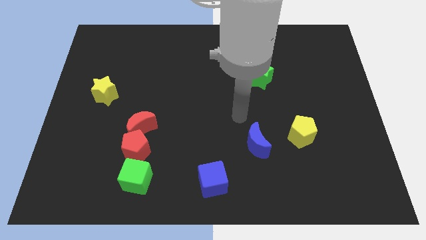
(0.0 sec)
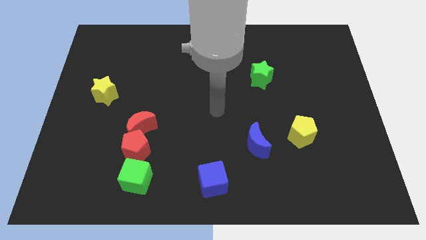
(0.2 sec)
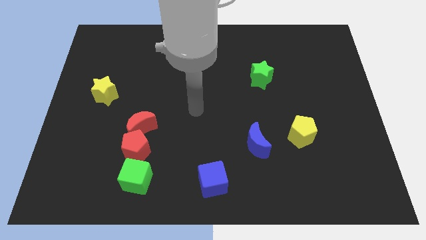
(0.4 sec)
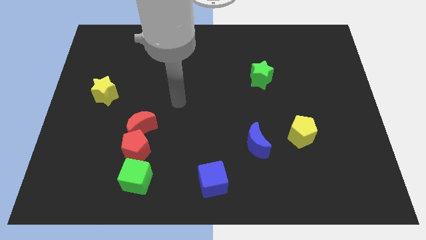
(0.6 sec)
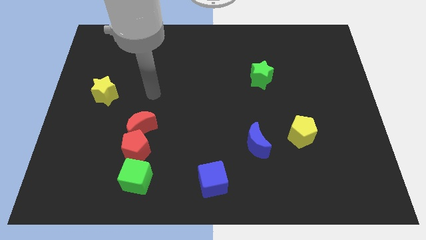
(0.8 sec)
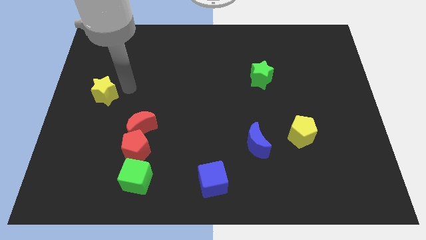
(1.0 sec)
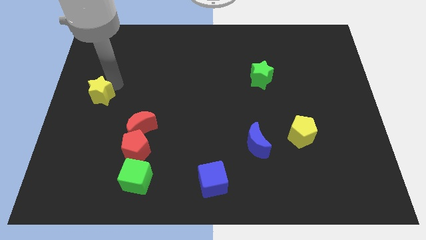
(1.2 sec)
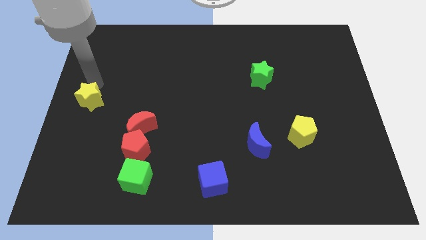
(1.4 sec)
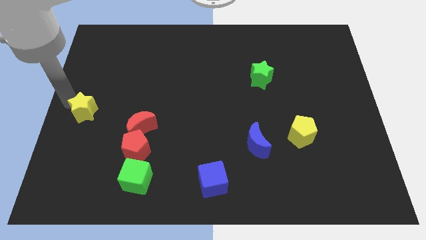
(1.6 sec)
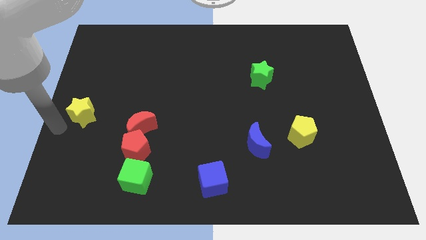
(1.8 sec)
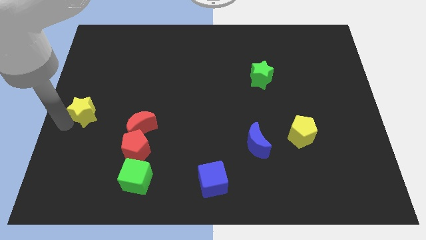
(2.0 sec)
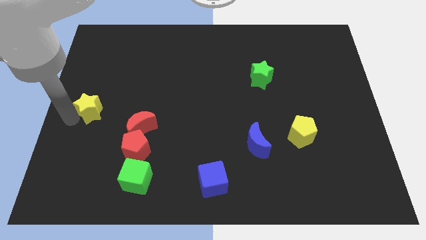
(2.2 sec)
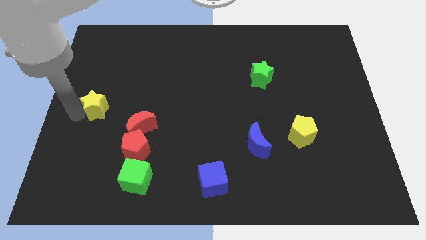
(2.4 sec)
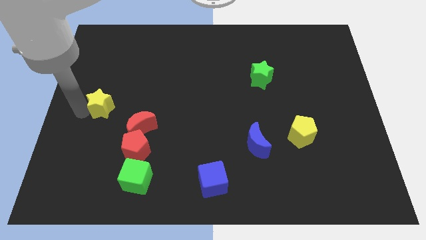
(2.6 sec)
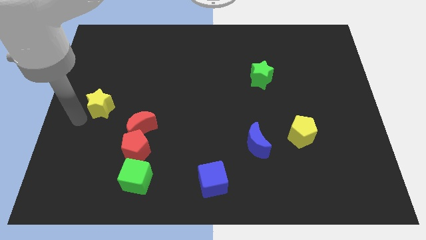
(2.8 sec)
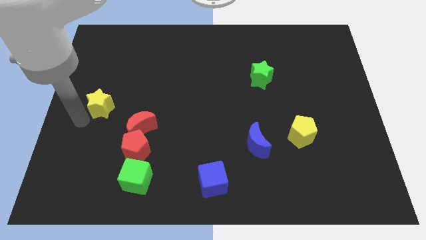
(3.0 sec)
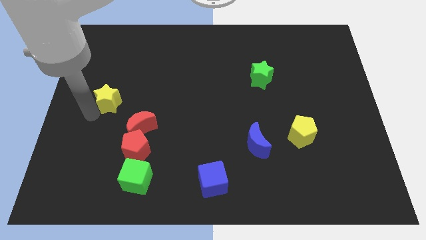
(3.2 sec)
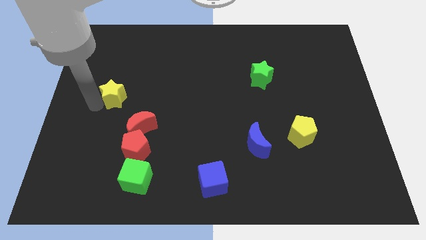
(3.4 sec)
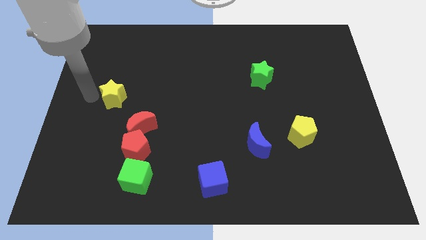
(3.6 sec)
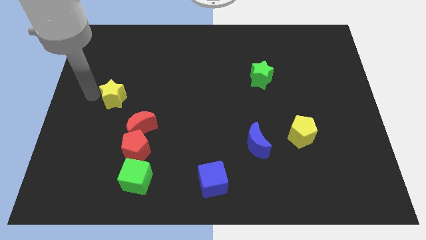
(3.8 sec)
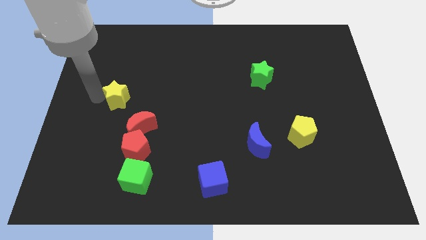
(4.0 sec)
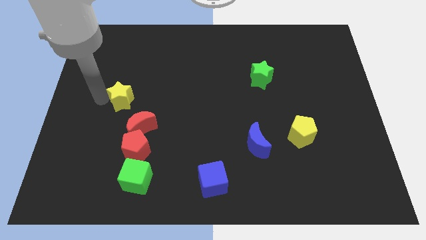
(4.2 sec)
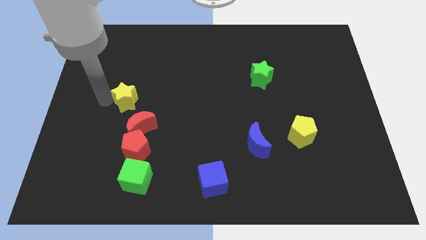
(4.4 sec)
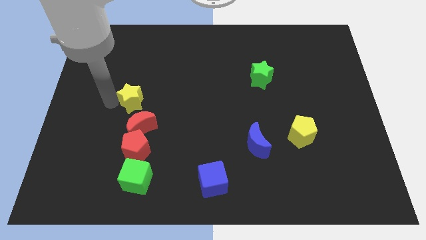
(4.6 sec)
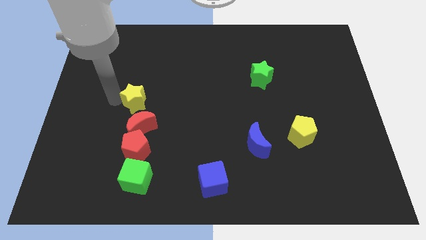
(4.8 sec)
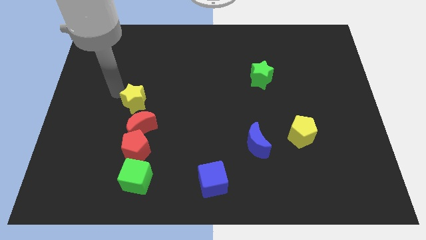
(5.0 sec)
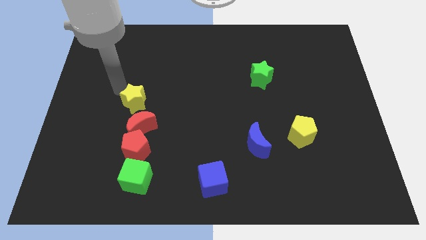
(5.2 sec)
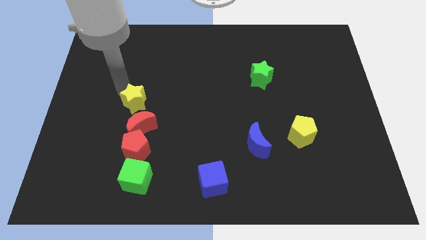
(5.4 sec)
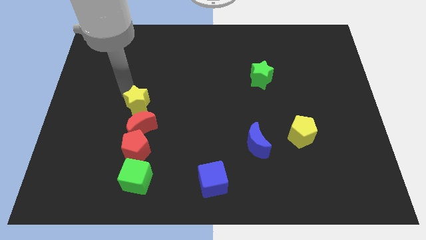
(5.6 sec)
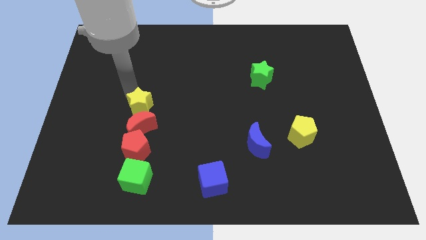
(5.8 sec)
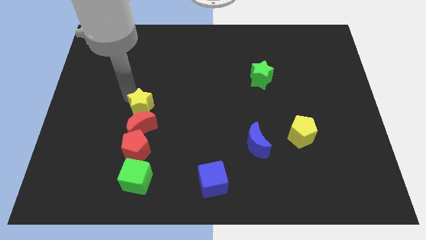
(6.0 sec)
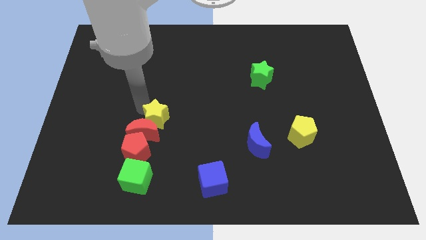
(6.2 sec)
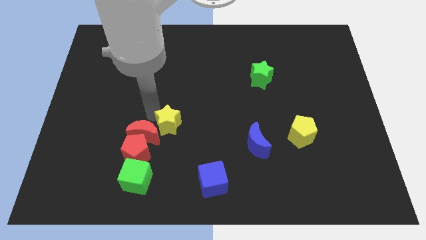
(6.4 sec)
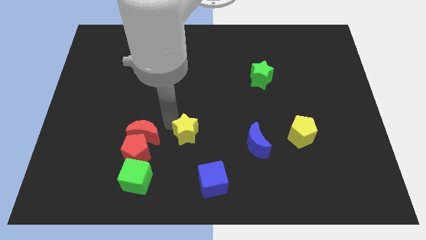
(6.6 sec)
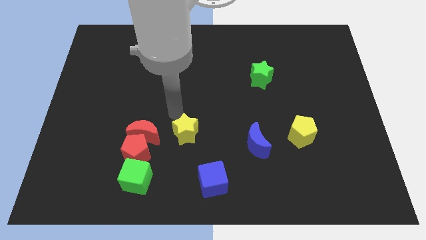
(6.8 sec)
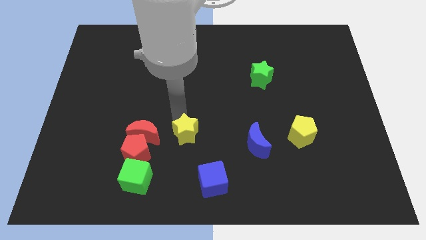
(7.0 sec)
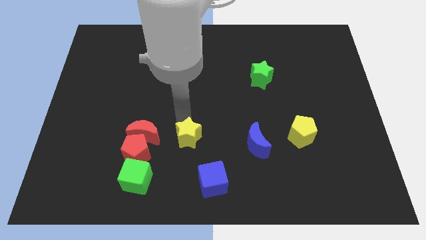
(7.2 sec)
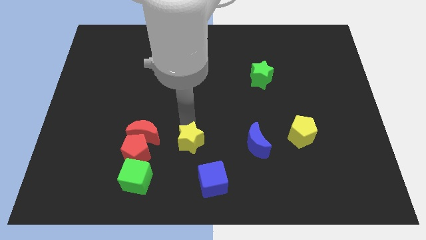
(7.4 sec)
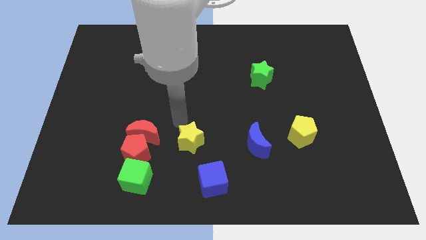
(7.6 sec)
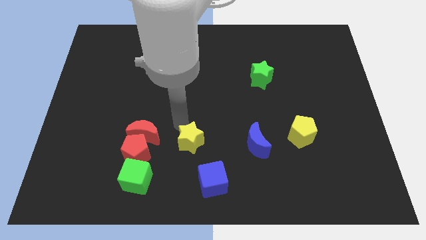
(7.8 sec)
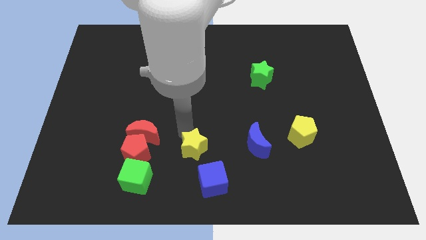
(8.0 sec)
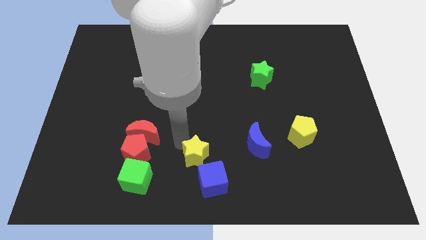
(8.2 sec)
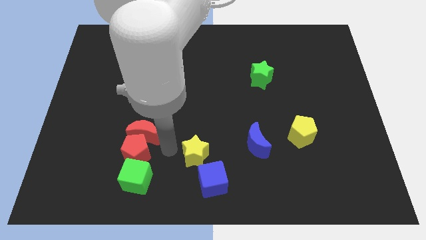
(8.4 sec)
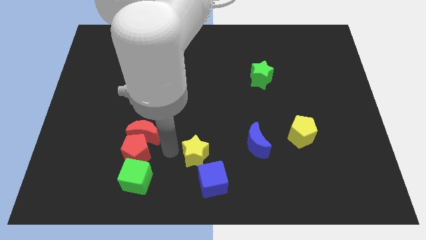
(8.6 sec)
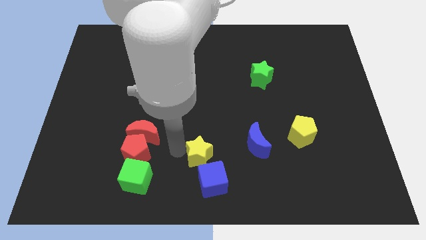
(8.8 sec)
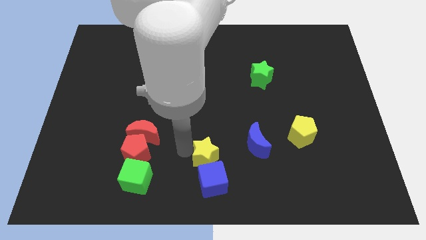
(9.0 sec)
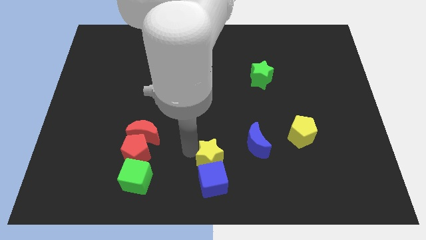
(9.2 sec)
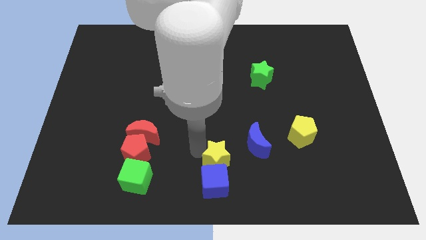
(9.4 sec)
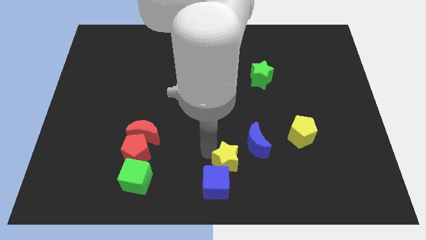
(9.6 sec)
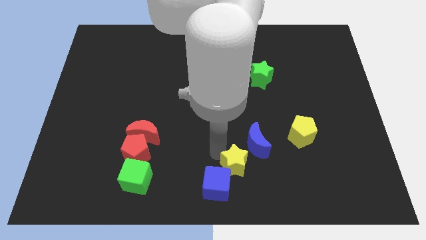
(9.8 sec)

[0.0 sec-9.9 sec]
move the yellow star to the right side of the blue cube

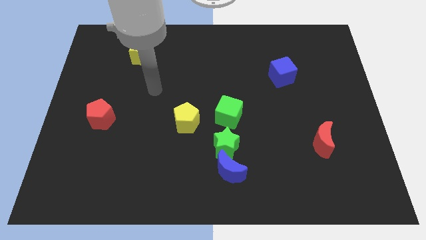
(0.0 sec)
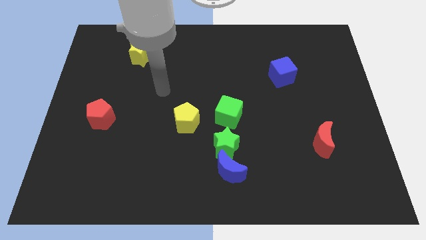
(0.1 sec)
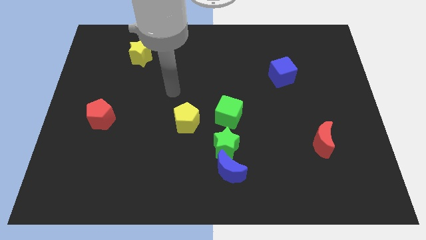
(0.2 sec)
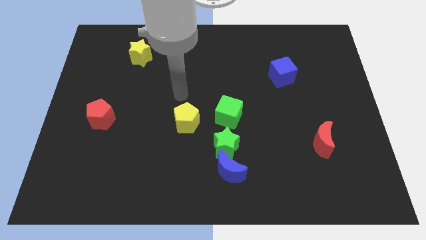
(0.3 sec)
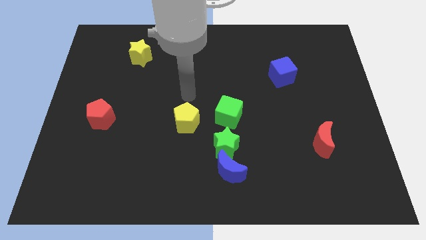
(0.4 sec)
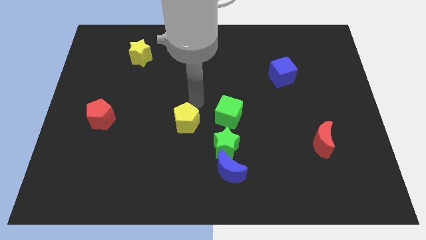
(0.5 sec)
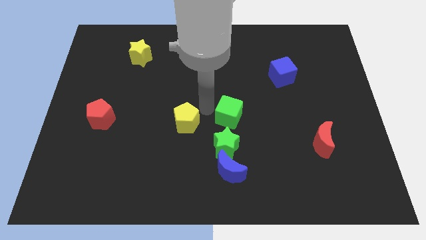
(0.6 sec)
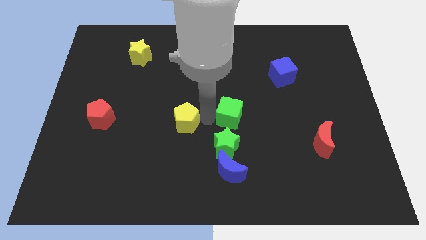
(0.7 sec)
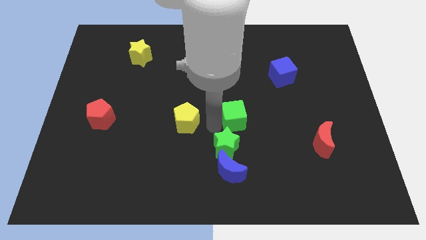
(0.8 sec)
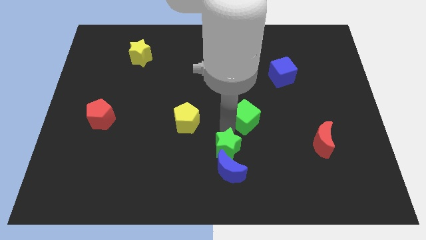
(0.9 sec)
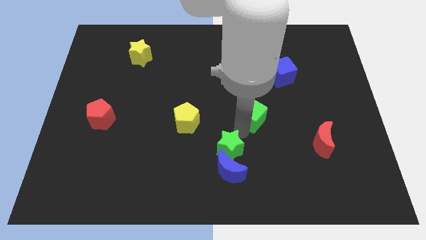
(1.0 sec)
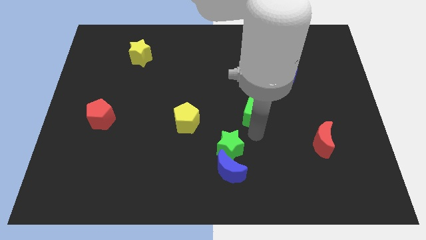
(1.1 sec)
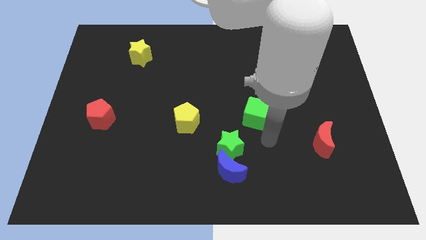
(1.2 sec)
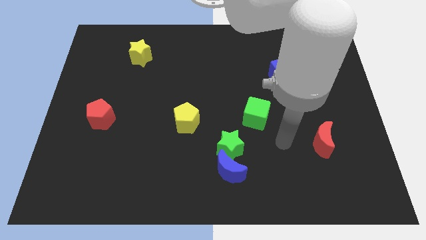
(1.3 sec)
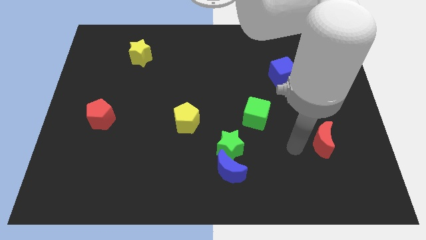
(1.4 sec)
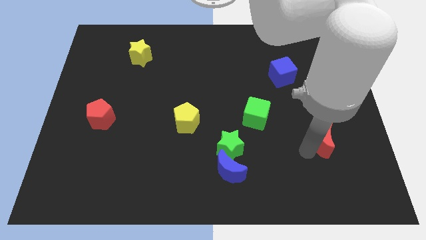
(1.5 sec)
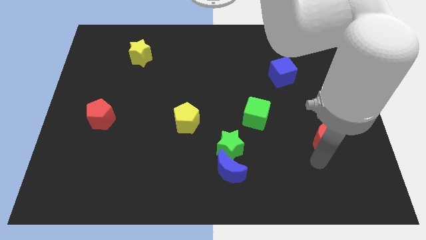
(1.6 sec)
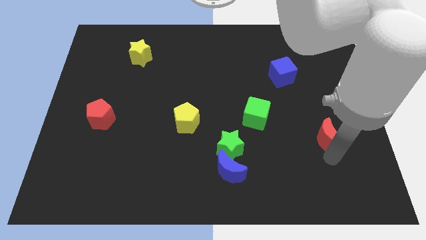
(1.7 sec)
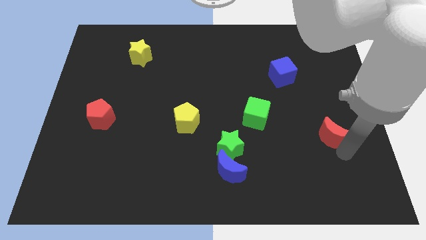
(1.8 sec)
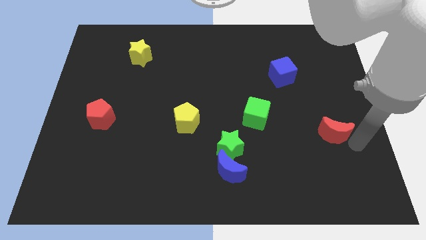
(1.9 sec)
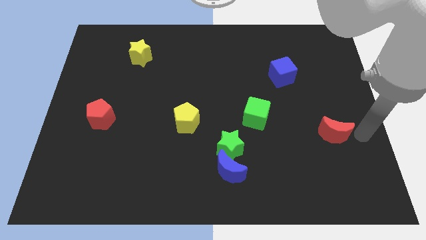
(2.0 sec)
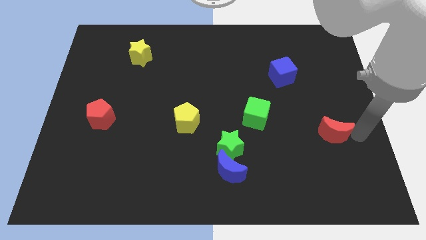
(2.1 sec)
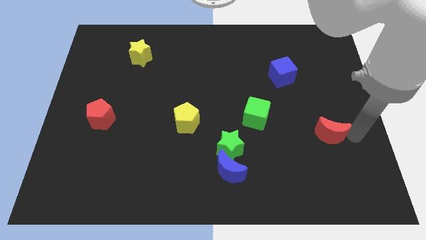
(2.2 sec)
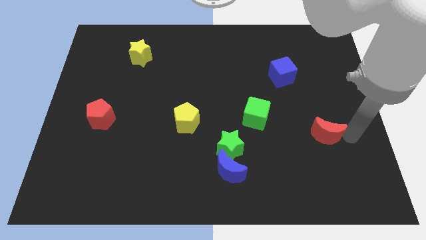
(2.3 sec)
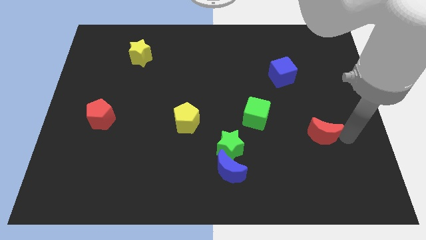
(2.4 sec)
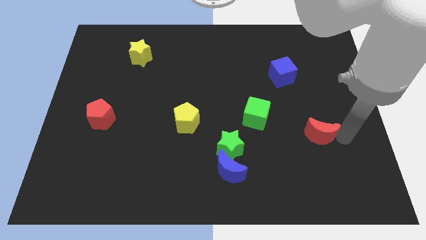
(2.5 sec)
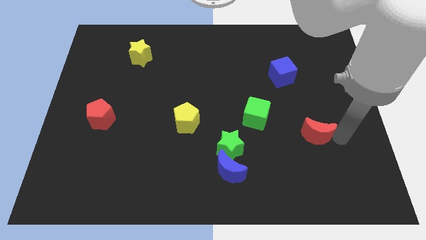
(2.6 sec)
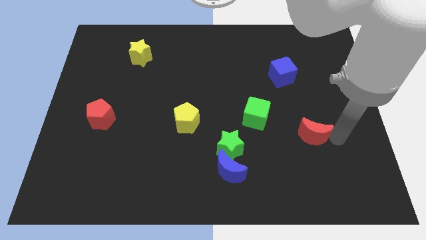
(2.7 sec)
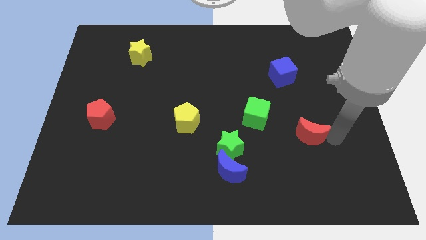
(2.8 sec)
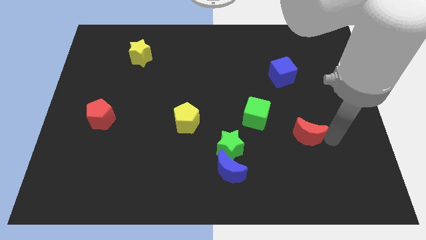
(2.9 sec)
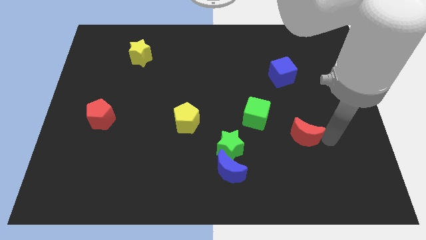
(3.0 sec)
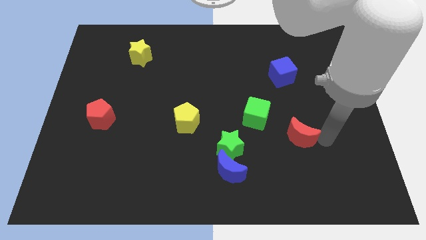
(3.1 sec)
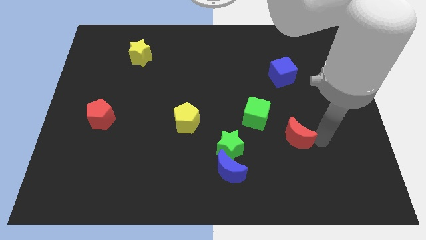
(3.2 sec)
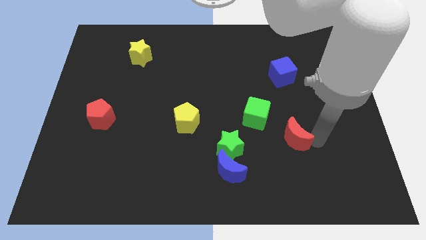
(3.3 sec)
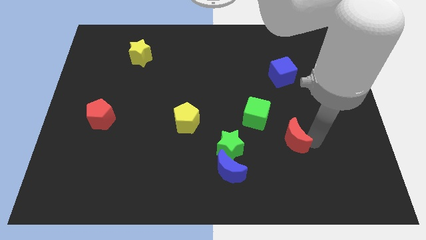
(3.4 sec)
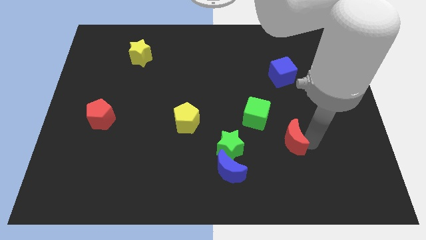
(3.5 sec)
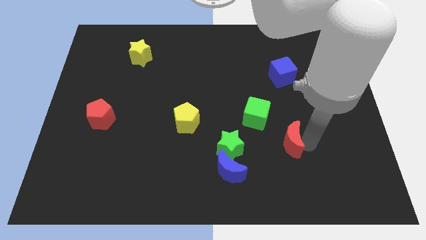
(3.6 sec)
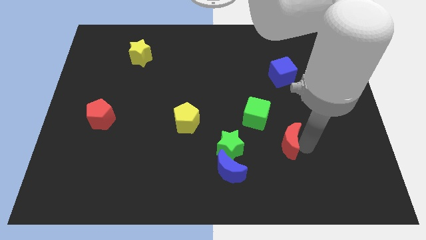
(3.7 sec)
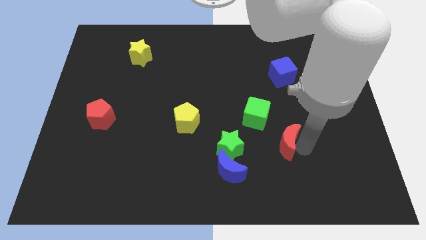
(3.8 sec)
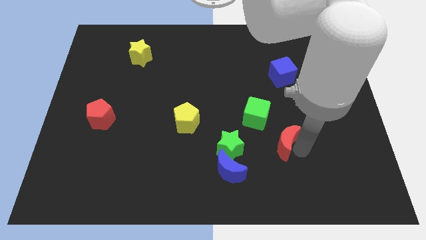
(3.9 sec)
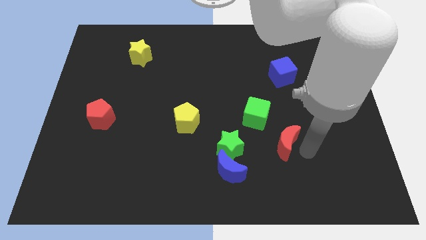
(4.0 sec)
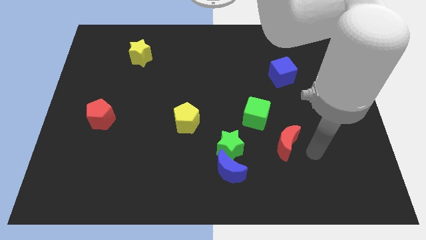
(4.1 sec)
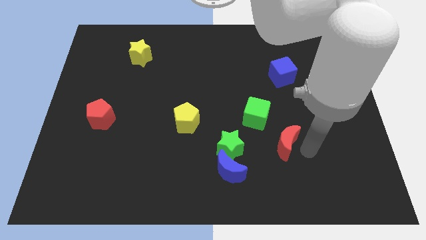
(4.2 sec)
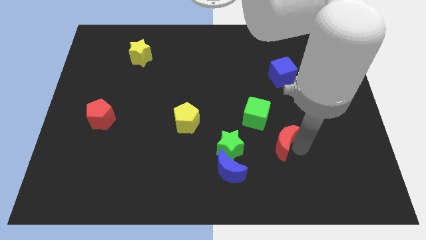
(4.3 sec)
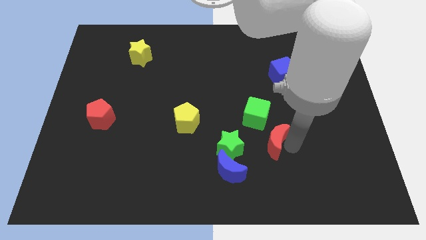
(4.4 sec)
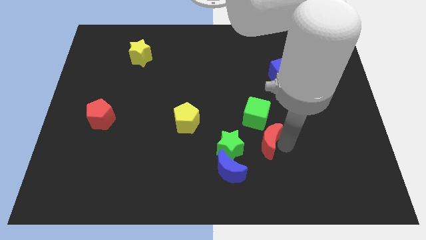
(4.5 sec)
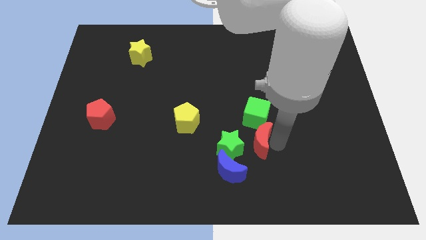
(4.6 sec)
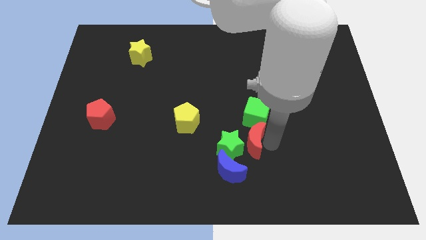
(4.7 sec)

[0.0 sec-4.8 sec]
put the red moon diagonally down and to the left of the green cube
